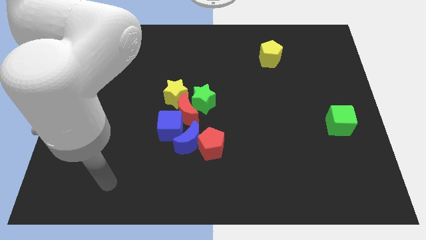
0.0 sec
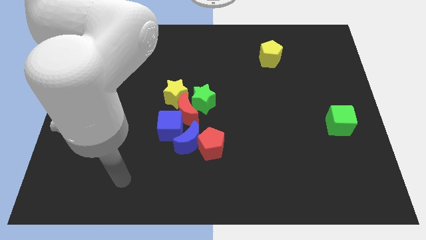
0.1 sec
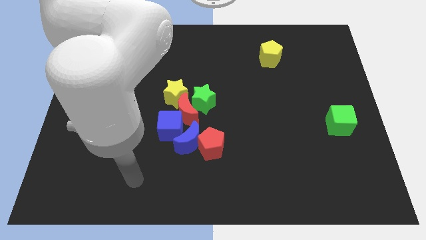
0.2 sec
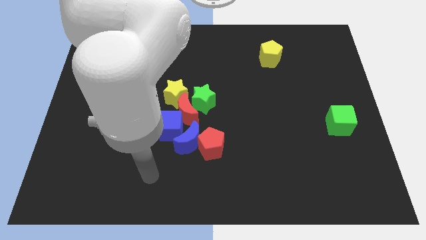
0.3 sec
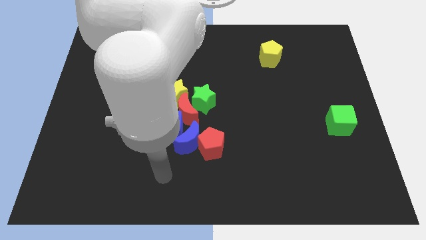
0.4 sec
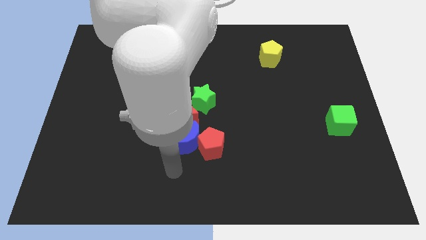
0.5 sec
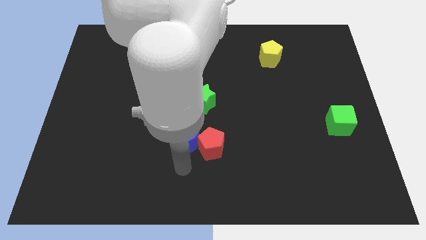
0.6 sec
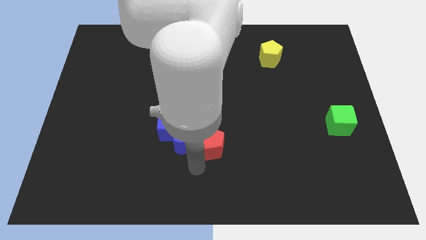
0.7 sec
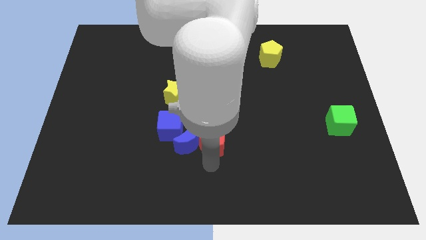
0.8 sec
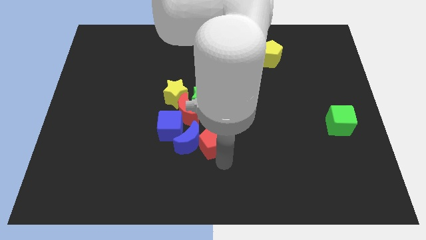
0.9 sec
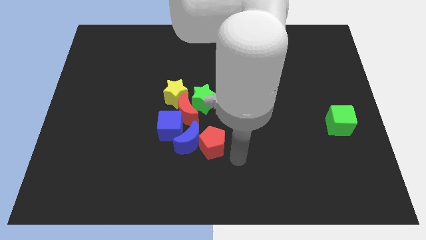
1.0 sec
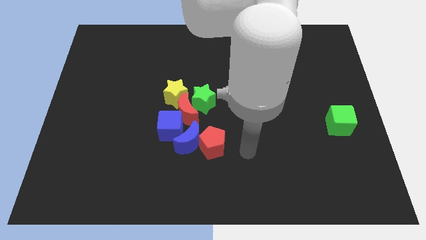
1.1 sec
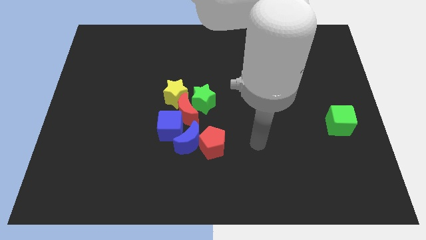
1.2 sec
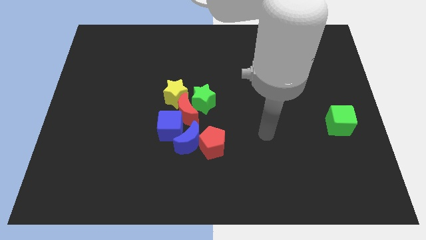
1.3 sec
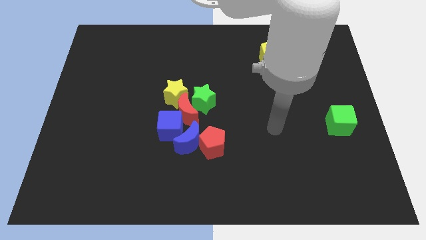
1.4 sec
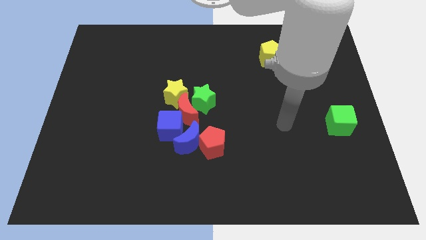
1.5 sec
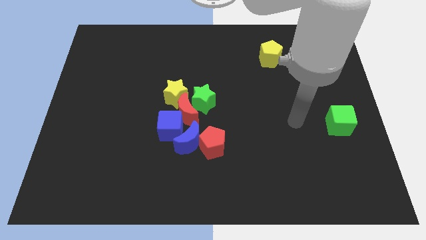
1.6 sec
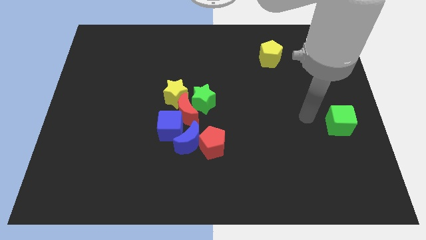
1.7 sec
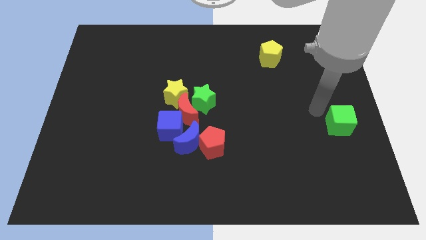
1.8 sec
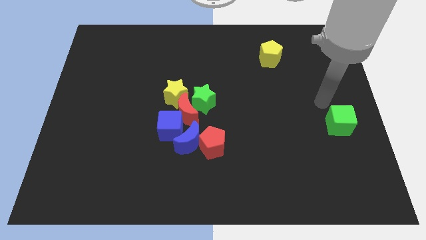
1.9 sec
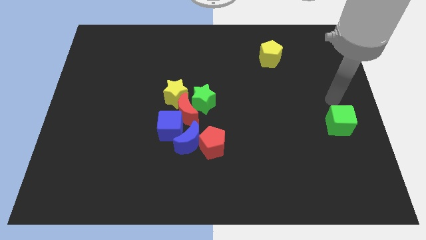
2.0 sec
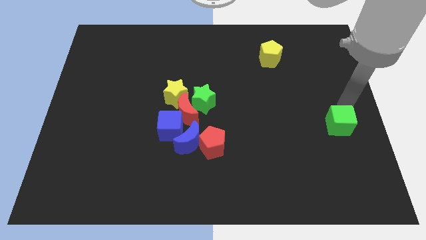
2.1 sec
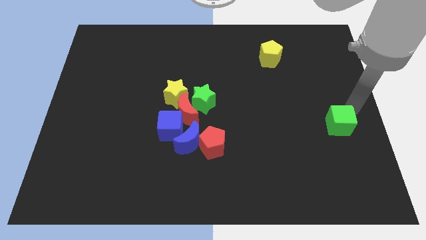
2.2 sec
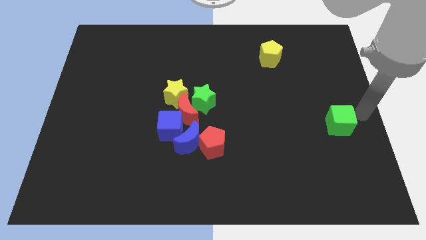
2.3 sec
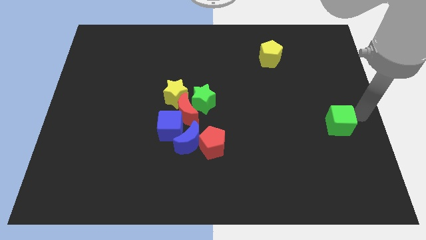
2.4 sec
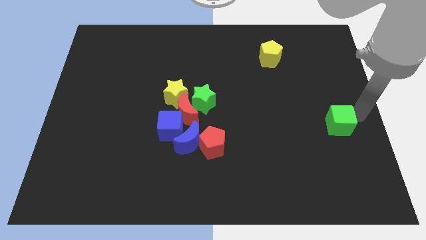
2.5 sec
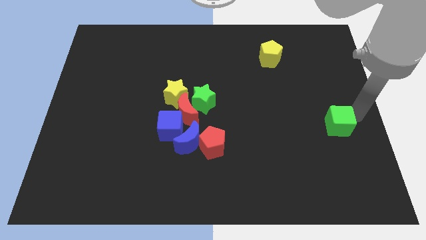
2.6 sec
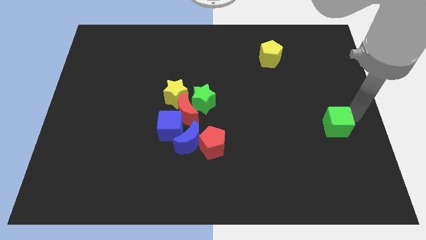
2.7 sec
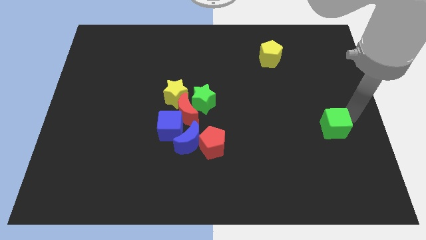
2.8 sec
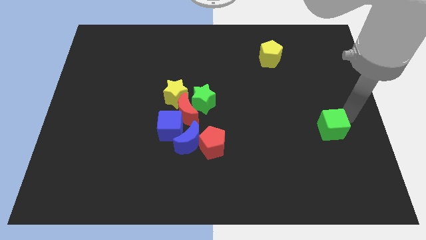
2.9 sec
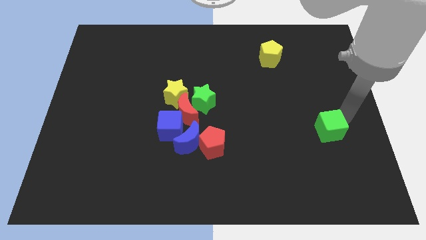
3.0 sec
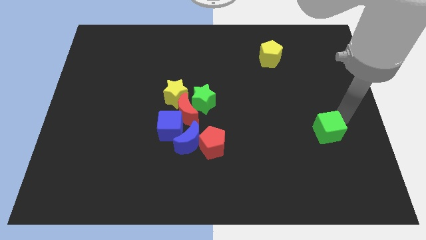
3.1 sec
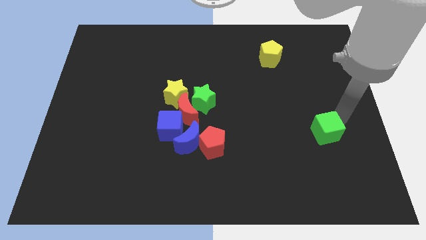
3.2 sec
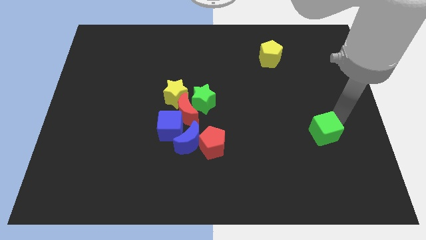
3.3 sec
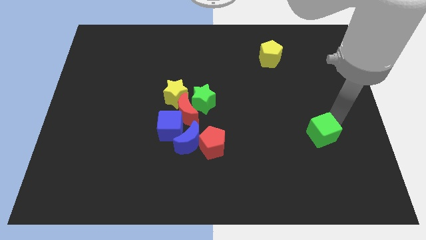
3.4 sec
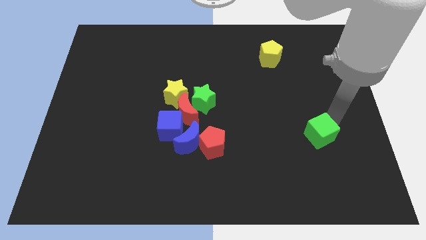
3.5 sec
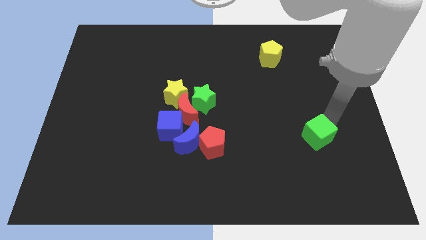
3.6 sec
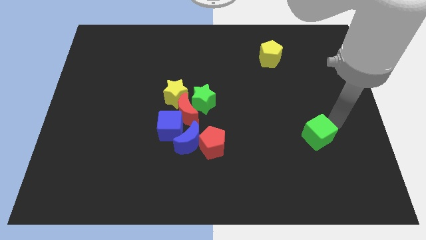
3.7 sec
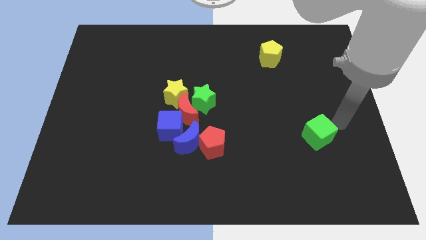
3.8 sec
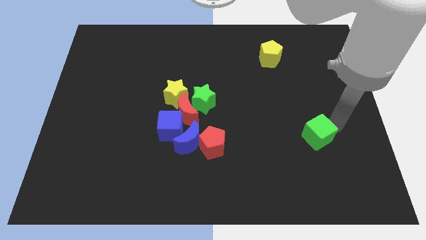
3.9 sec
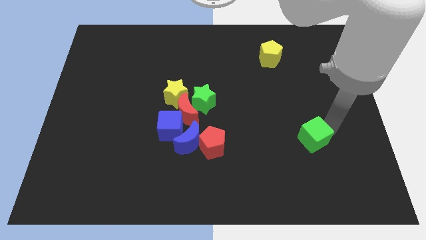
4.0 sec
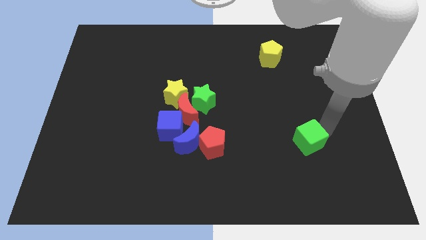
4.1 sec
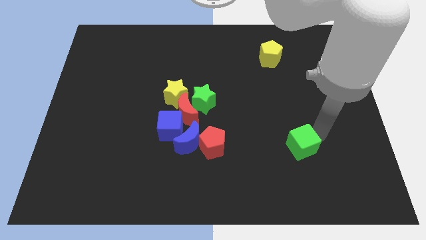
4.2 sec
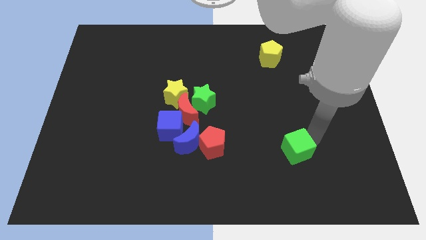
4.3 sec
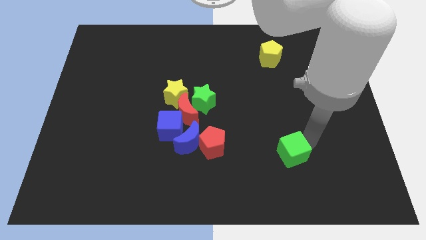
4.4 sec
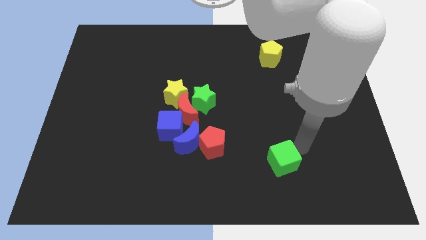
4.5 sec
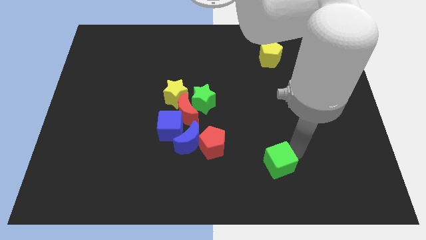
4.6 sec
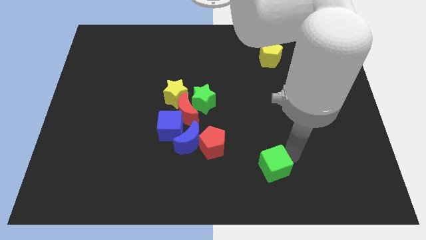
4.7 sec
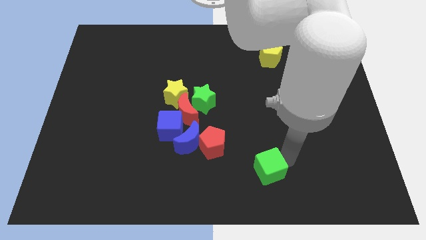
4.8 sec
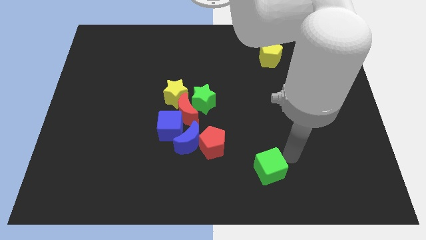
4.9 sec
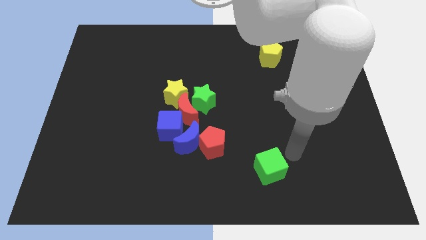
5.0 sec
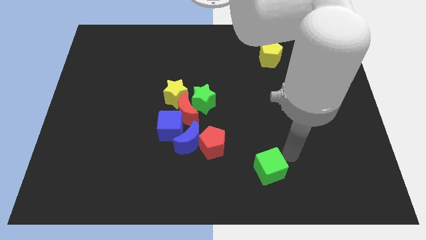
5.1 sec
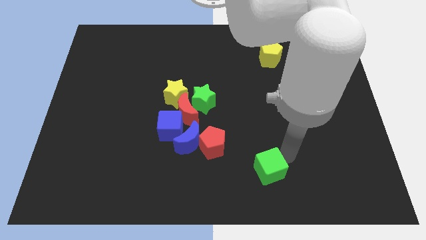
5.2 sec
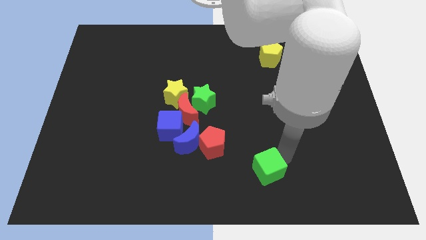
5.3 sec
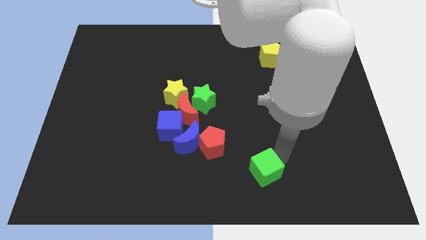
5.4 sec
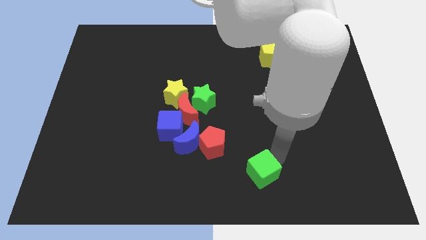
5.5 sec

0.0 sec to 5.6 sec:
move the green cube to the bottom side
